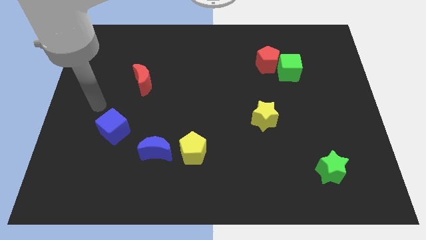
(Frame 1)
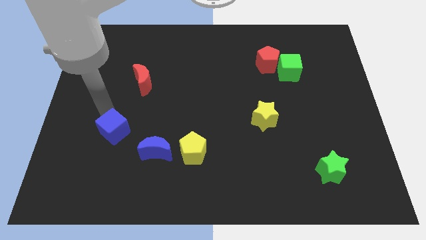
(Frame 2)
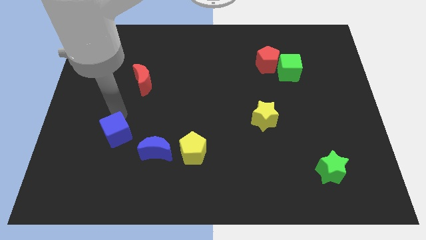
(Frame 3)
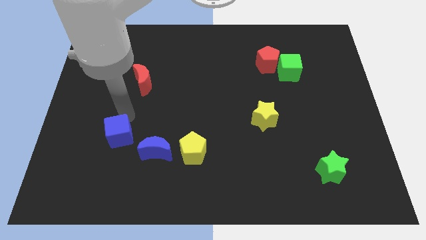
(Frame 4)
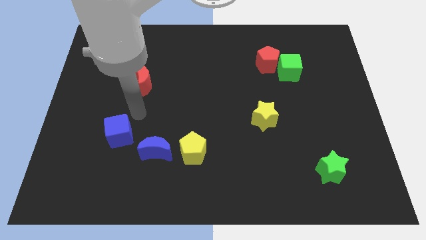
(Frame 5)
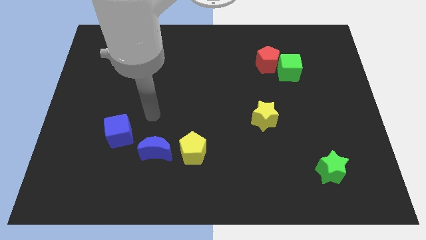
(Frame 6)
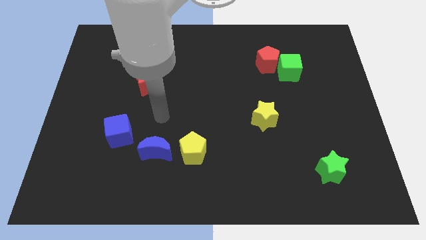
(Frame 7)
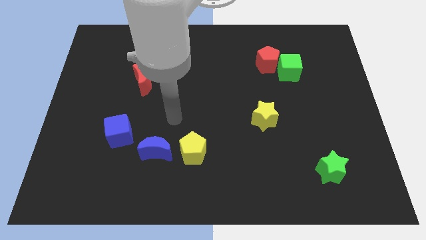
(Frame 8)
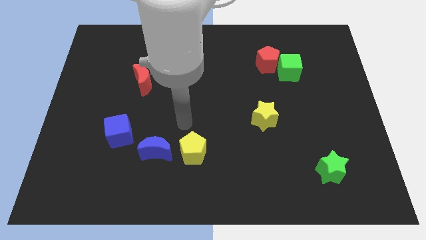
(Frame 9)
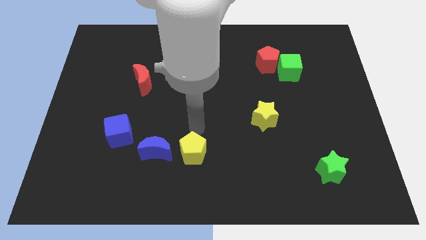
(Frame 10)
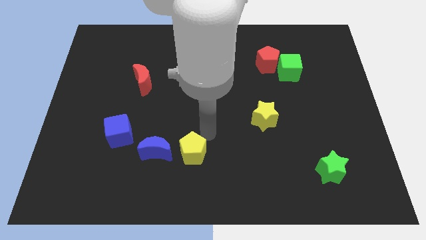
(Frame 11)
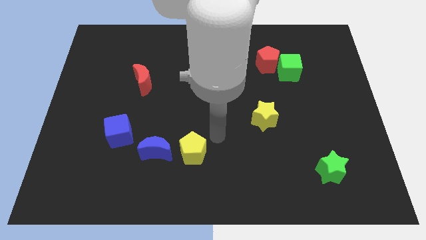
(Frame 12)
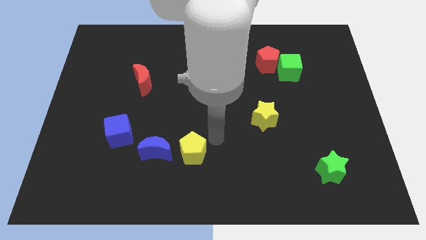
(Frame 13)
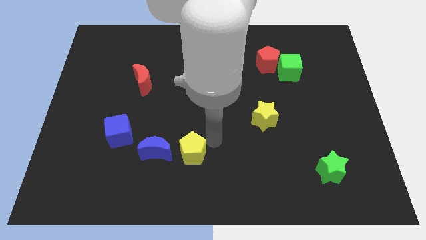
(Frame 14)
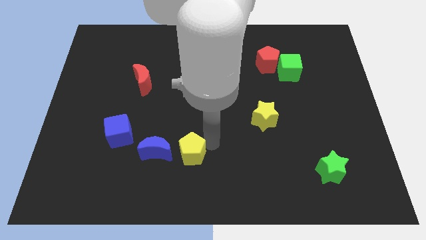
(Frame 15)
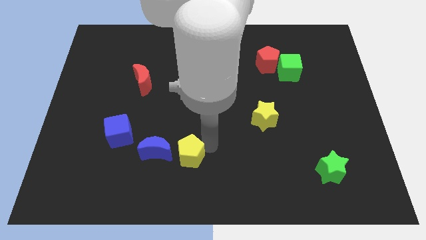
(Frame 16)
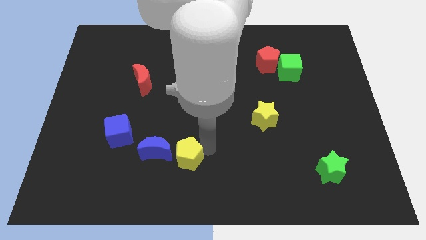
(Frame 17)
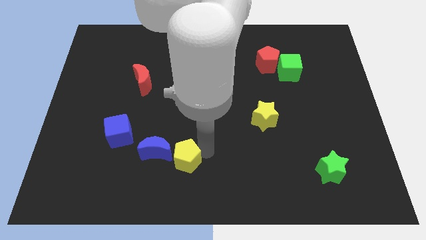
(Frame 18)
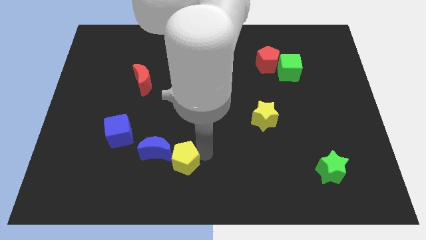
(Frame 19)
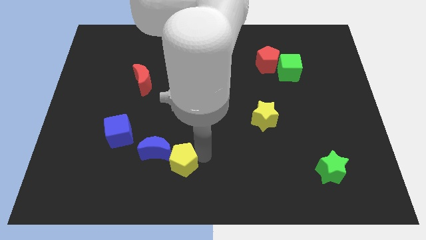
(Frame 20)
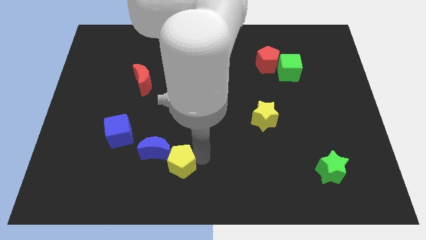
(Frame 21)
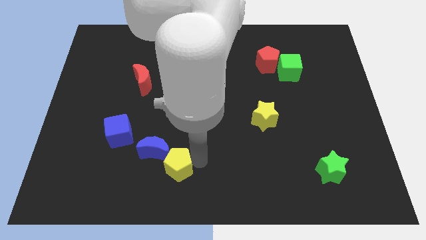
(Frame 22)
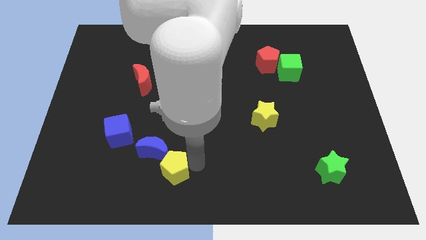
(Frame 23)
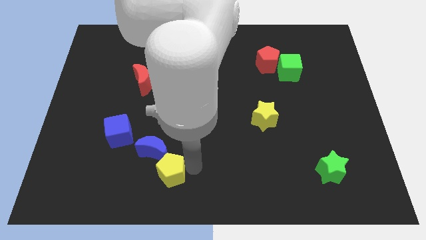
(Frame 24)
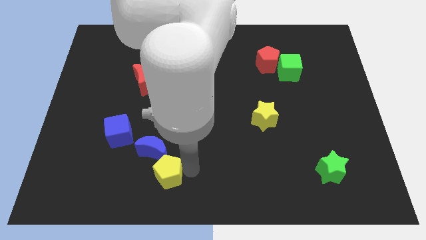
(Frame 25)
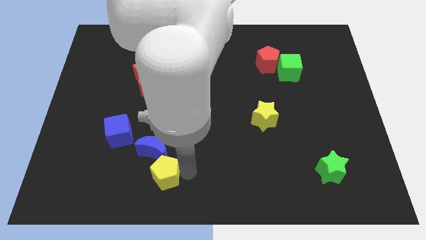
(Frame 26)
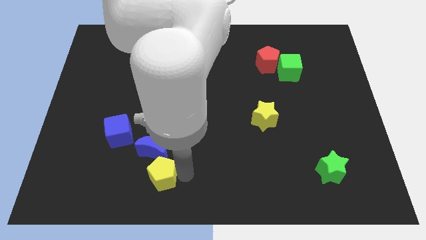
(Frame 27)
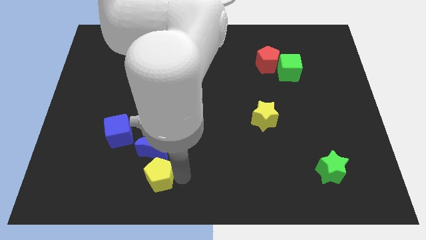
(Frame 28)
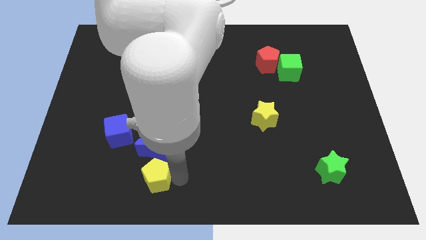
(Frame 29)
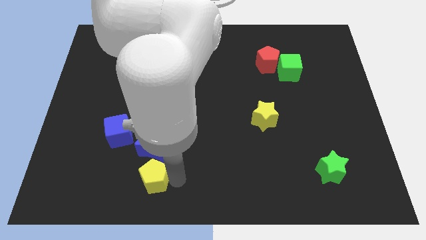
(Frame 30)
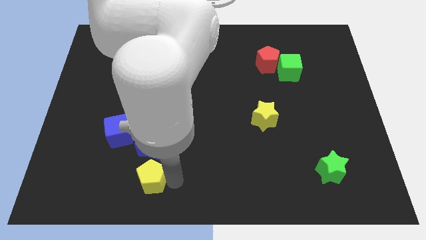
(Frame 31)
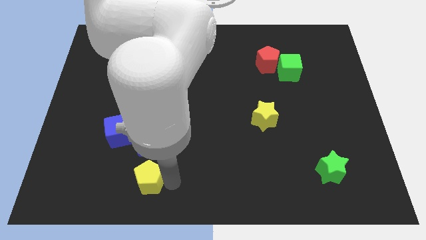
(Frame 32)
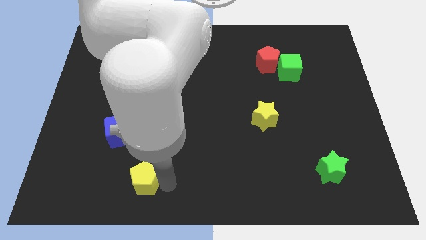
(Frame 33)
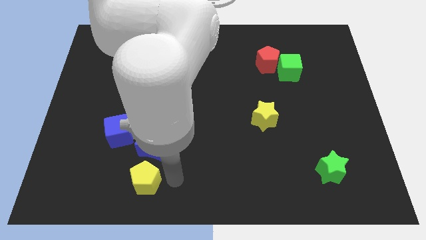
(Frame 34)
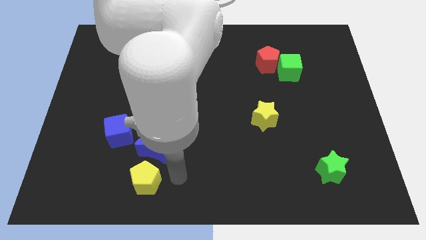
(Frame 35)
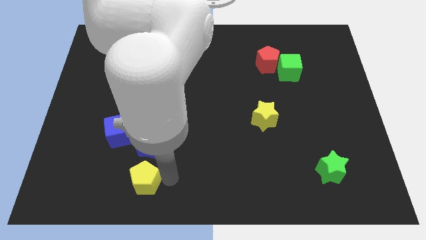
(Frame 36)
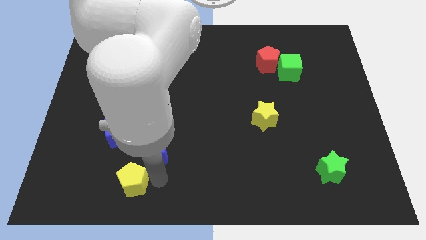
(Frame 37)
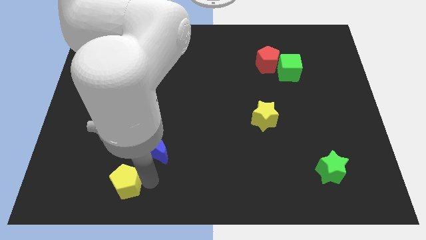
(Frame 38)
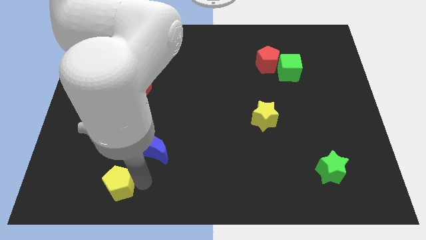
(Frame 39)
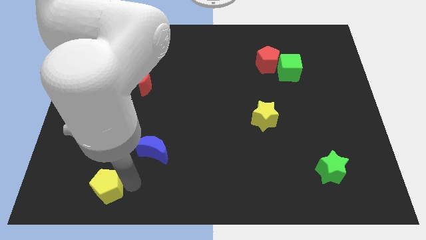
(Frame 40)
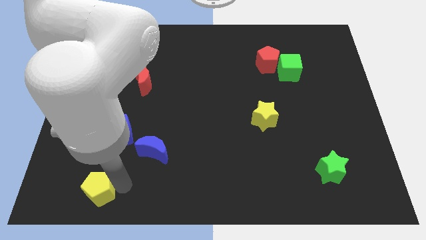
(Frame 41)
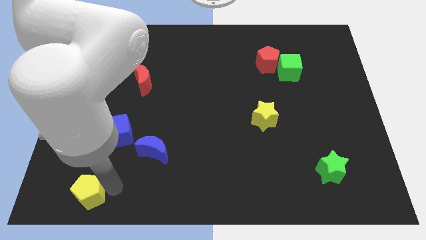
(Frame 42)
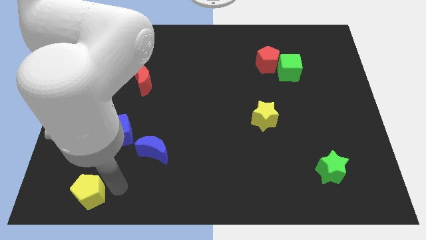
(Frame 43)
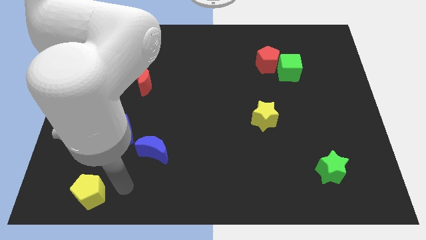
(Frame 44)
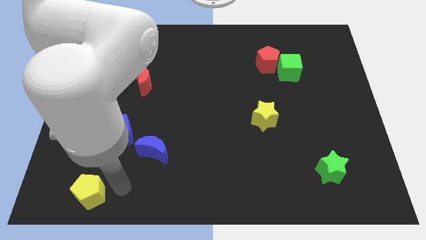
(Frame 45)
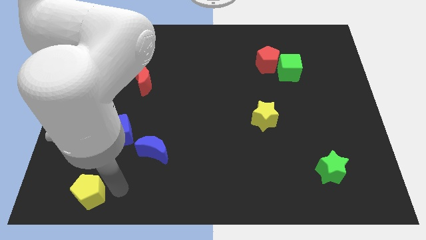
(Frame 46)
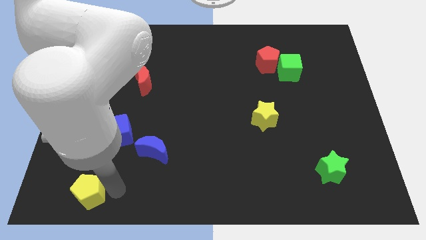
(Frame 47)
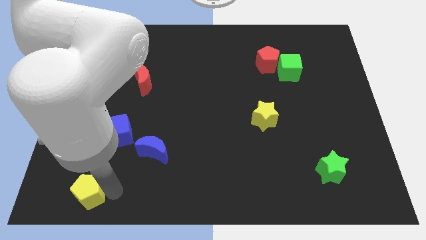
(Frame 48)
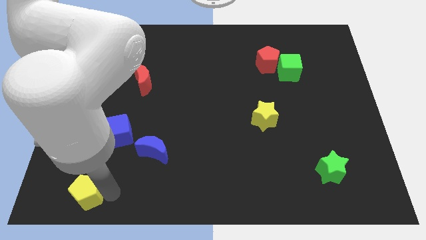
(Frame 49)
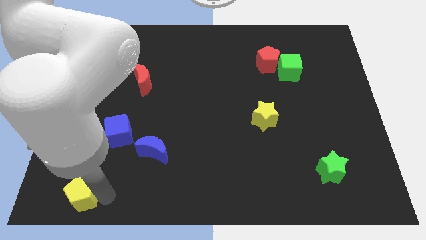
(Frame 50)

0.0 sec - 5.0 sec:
slide the yellow pentagon to the bottom left of the board

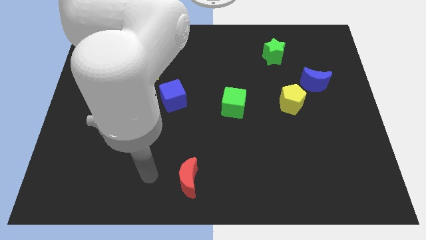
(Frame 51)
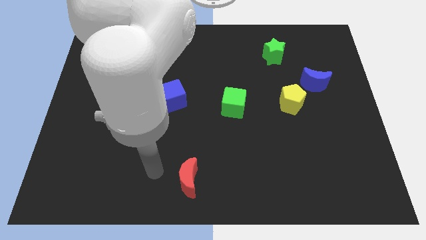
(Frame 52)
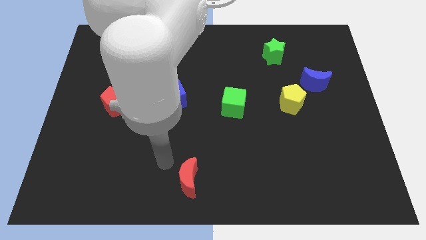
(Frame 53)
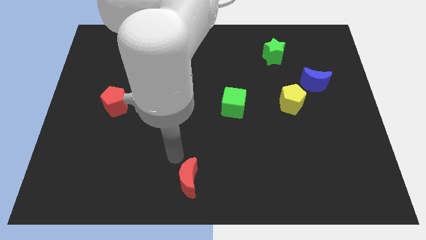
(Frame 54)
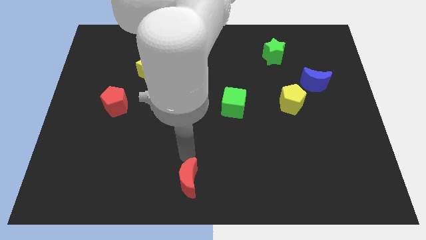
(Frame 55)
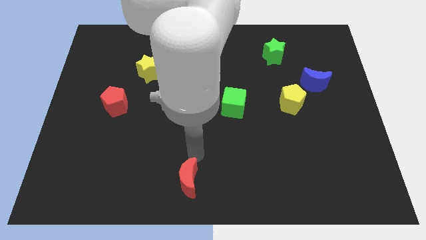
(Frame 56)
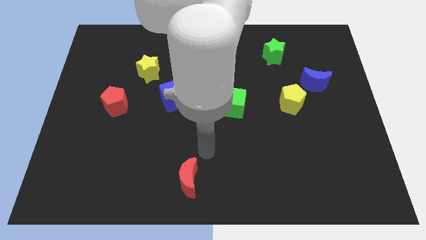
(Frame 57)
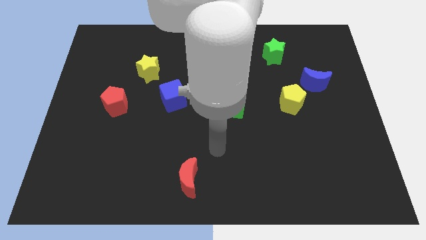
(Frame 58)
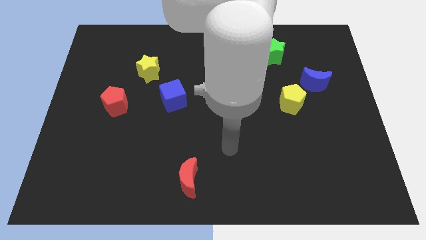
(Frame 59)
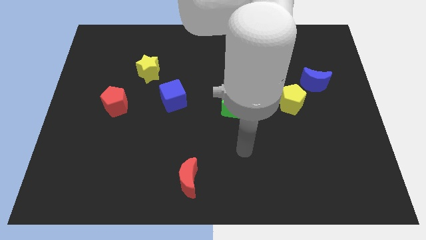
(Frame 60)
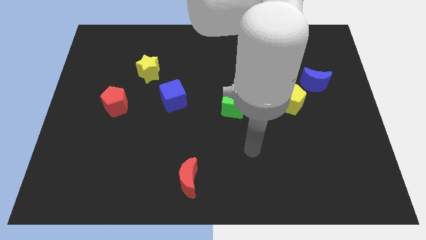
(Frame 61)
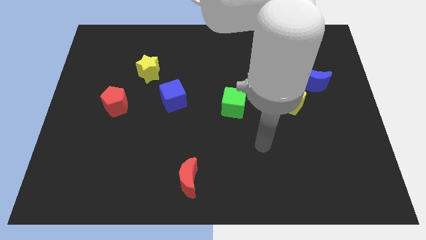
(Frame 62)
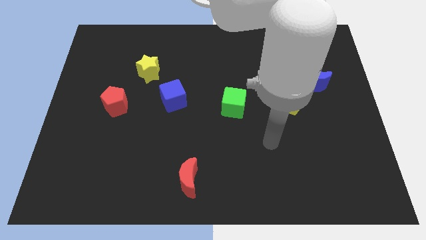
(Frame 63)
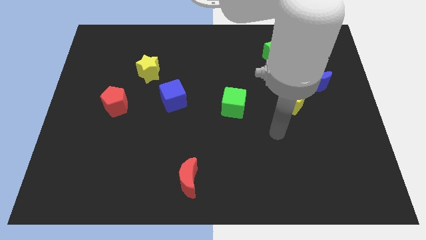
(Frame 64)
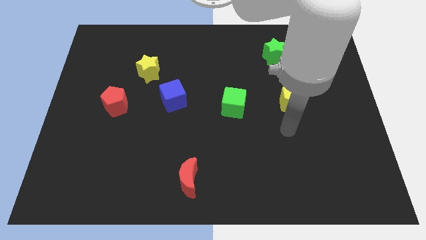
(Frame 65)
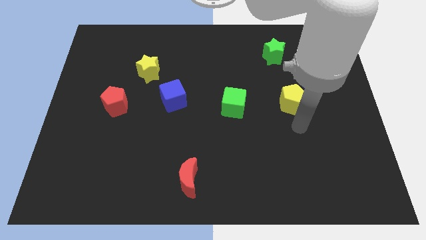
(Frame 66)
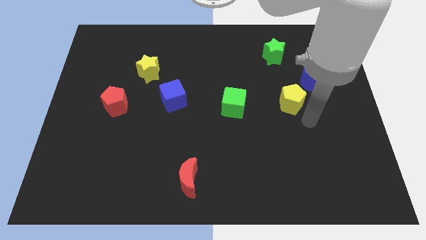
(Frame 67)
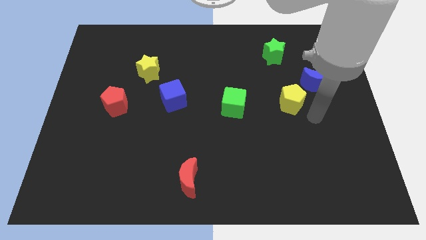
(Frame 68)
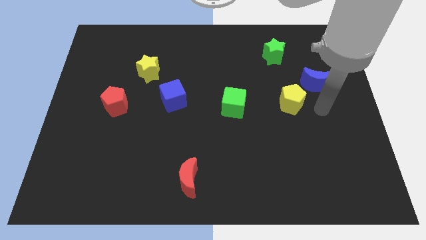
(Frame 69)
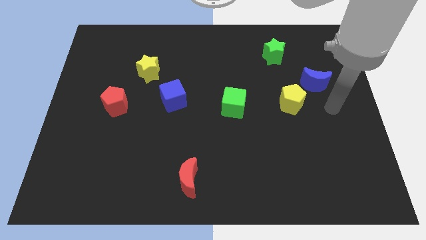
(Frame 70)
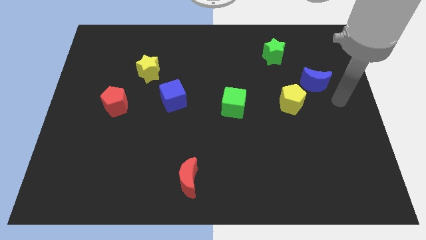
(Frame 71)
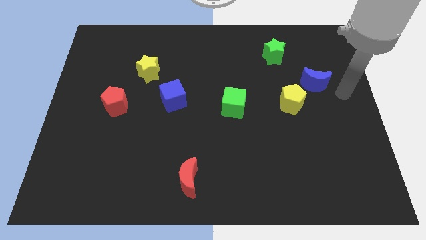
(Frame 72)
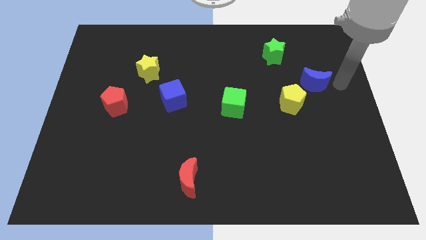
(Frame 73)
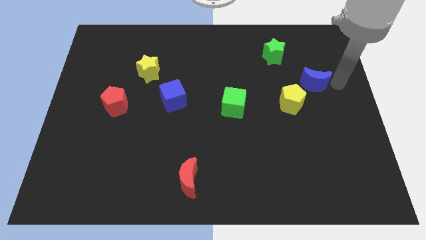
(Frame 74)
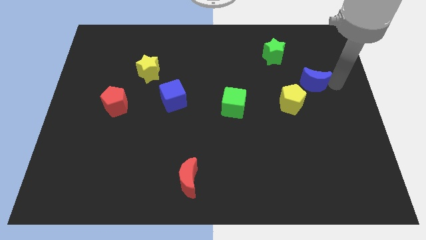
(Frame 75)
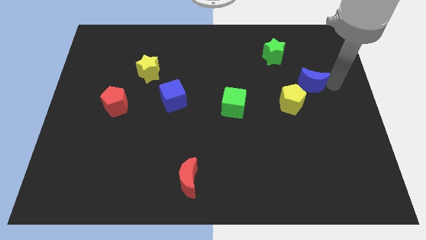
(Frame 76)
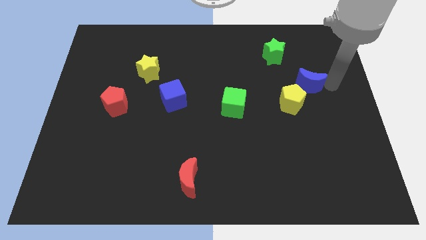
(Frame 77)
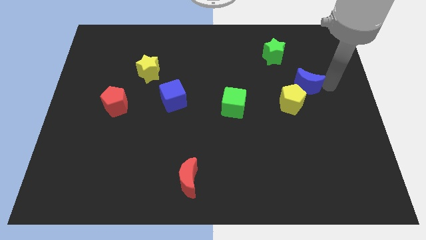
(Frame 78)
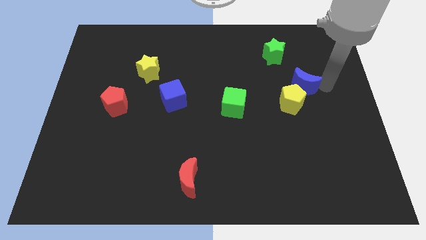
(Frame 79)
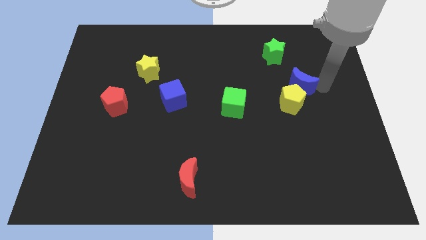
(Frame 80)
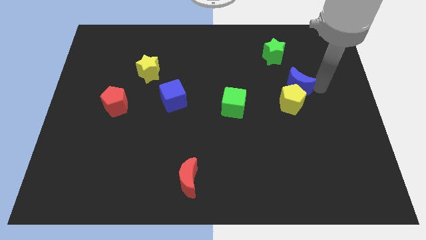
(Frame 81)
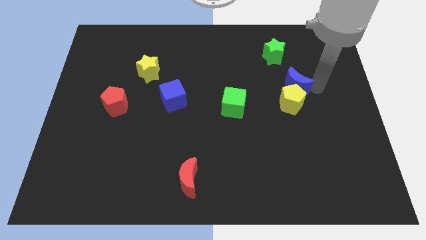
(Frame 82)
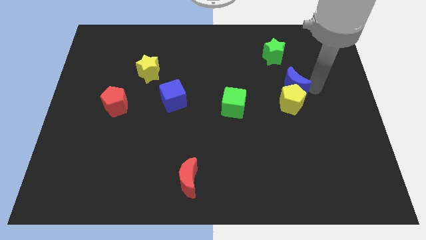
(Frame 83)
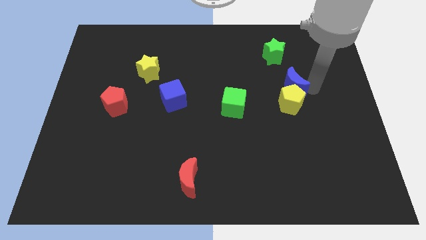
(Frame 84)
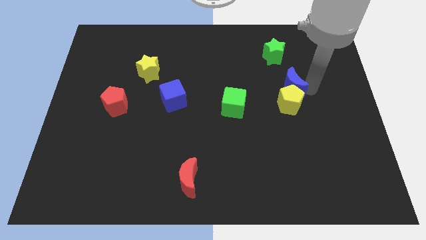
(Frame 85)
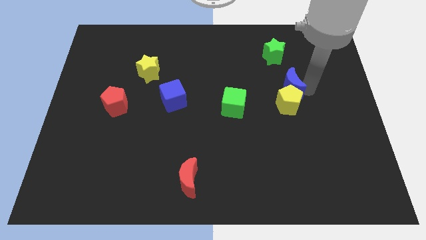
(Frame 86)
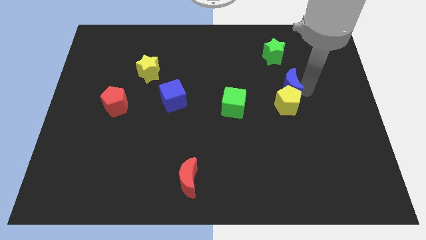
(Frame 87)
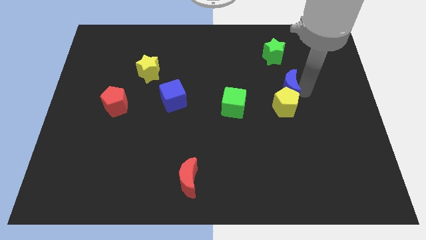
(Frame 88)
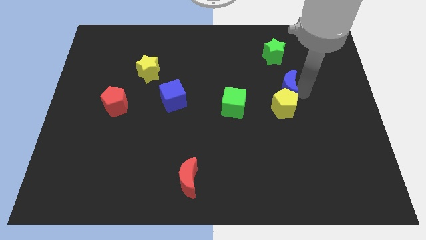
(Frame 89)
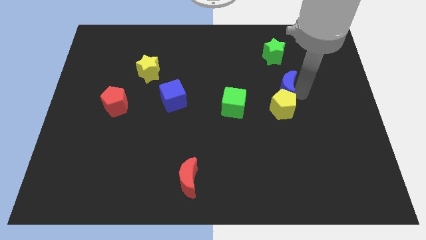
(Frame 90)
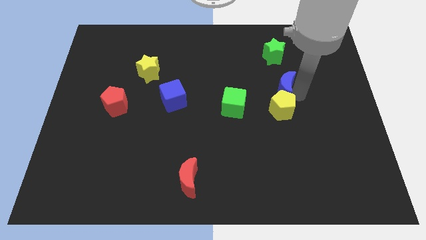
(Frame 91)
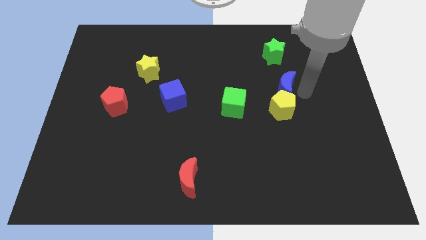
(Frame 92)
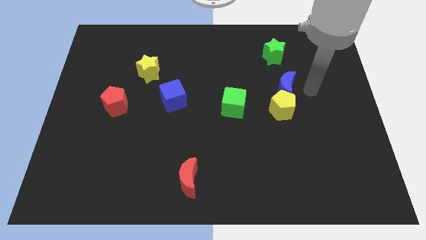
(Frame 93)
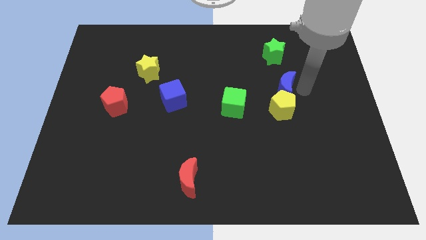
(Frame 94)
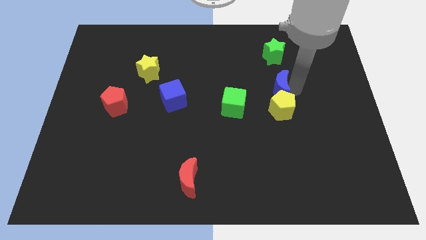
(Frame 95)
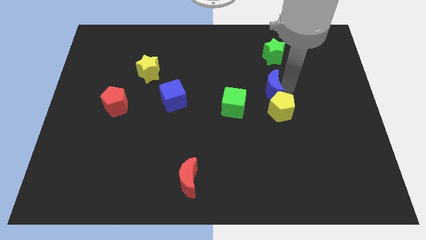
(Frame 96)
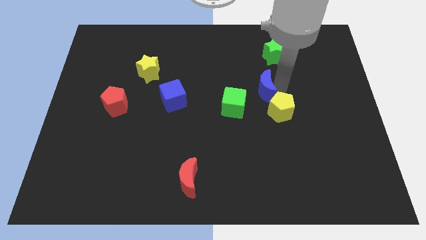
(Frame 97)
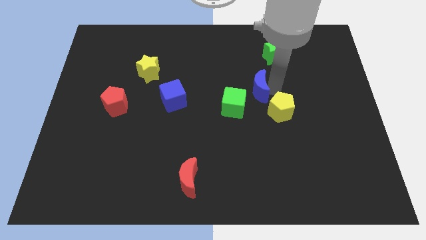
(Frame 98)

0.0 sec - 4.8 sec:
slide the blue moon to the center
